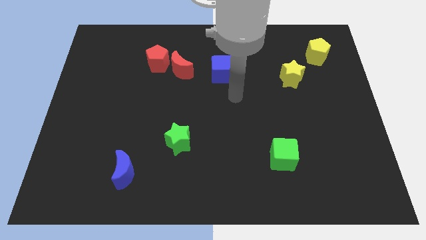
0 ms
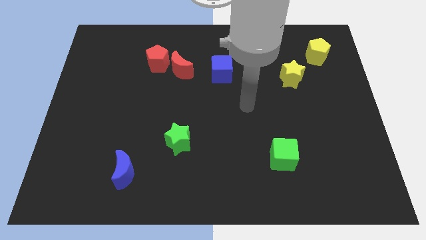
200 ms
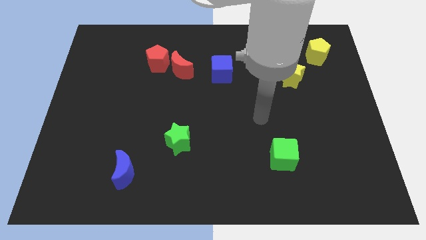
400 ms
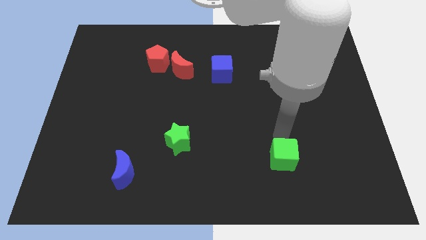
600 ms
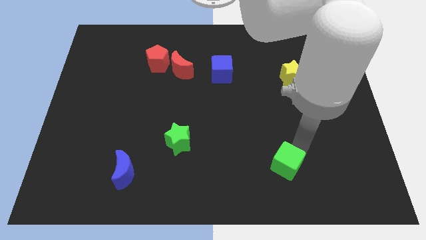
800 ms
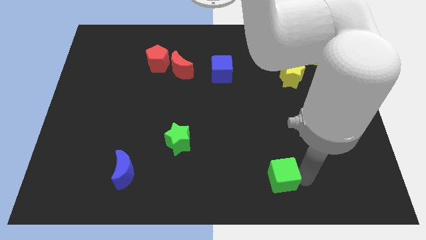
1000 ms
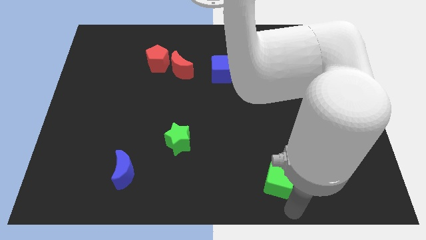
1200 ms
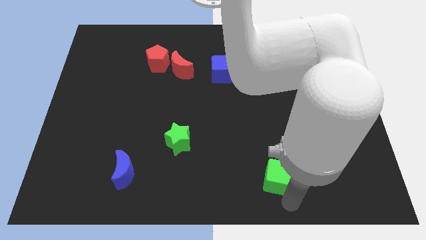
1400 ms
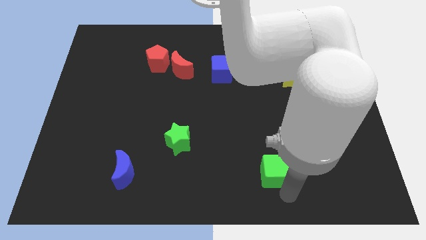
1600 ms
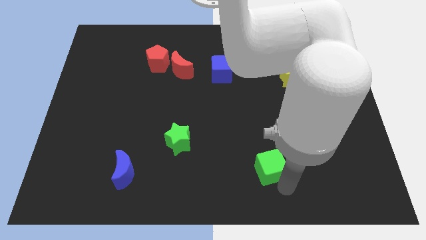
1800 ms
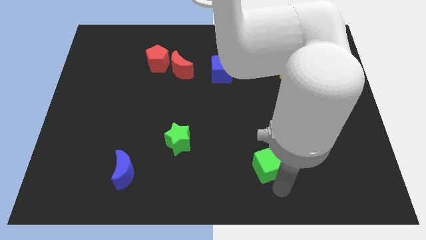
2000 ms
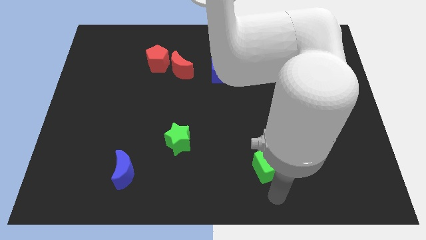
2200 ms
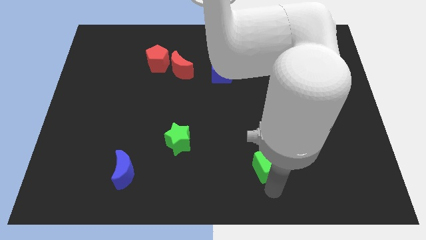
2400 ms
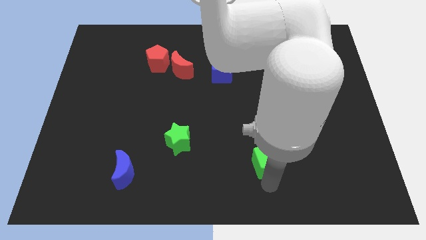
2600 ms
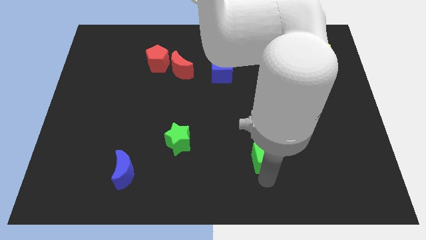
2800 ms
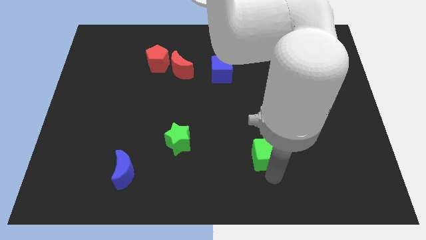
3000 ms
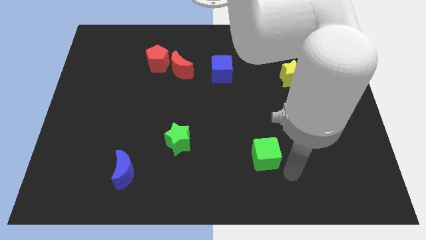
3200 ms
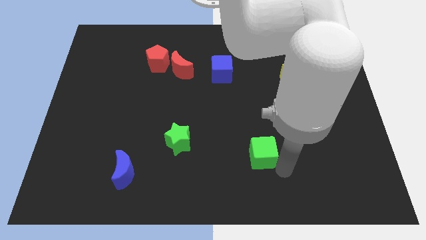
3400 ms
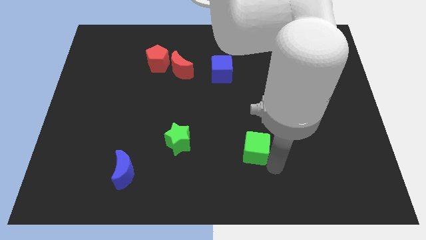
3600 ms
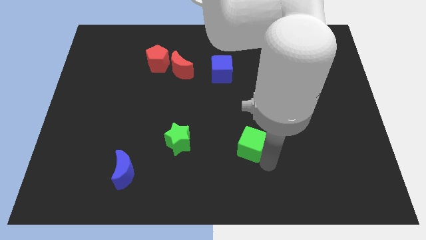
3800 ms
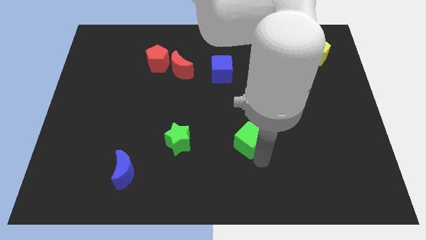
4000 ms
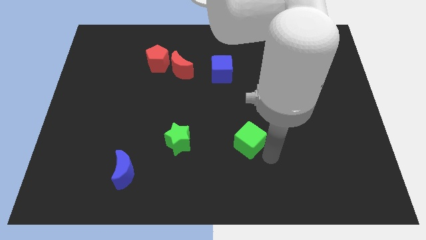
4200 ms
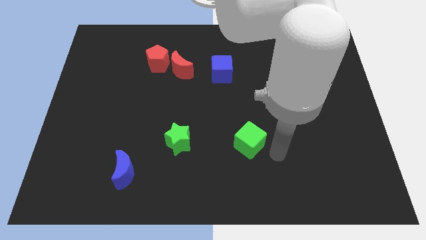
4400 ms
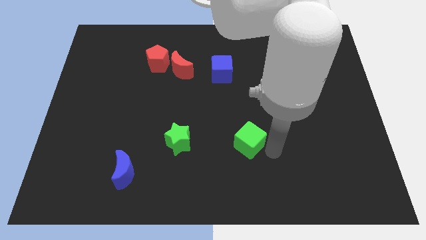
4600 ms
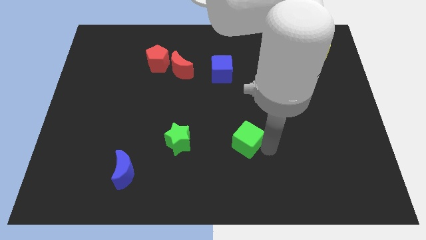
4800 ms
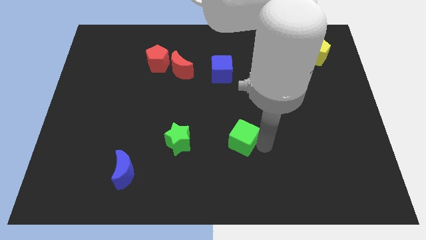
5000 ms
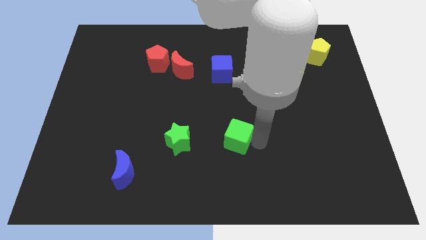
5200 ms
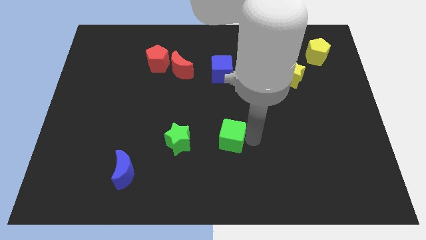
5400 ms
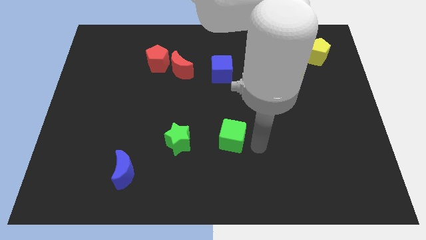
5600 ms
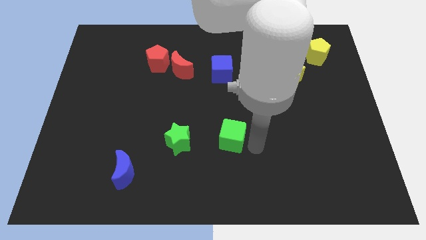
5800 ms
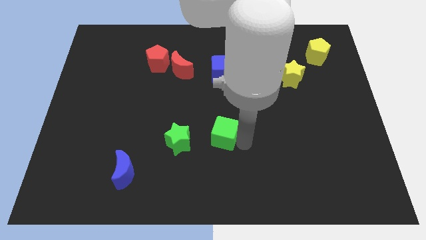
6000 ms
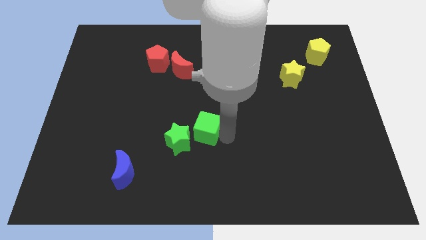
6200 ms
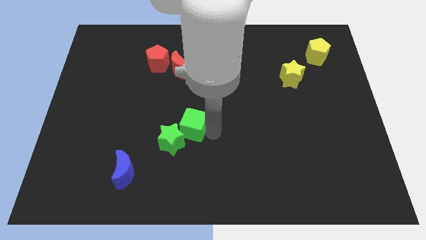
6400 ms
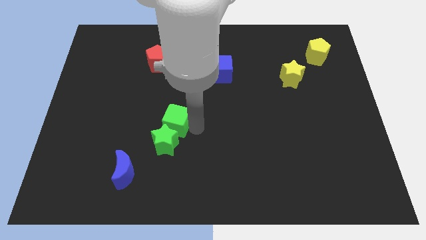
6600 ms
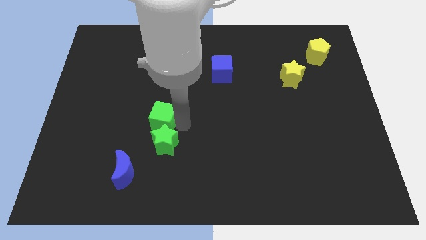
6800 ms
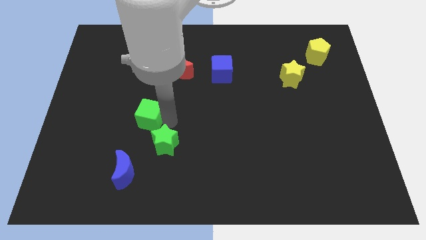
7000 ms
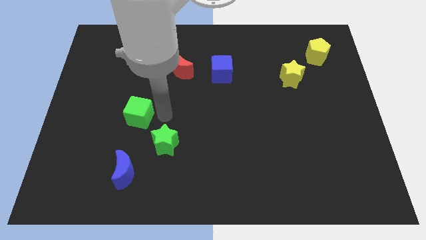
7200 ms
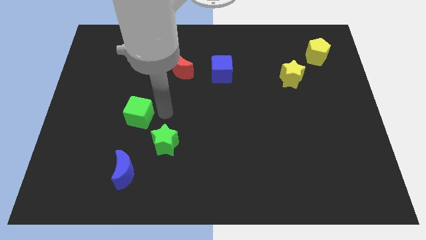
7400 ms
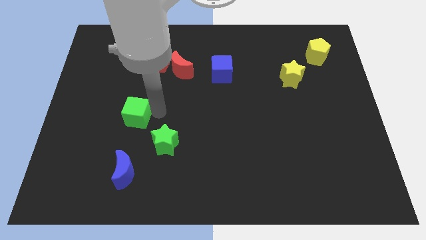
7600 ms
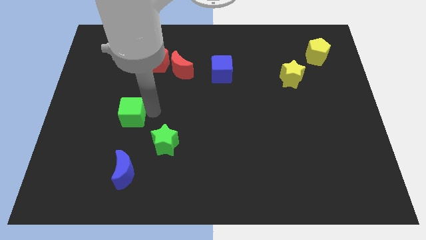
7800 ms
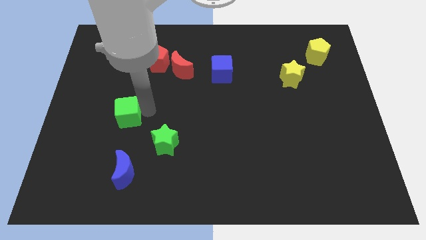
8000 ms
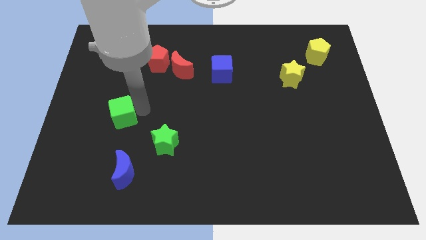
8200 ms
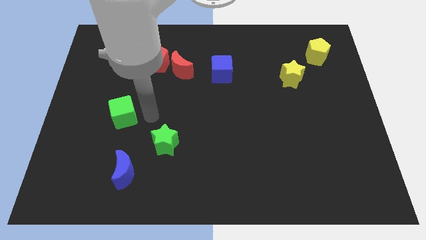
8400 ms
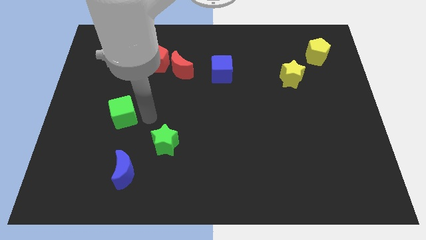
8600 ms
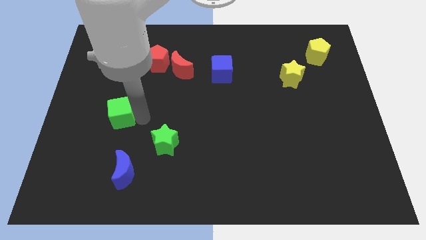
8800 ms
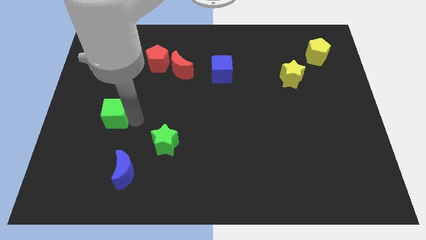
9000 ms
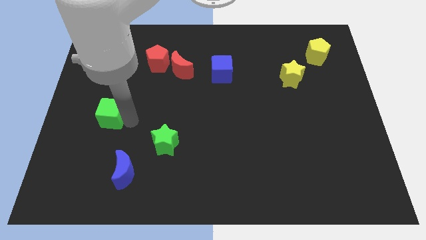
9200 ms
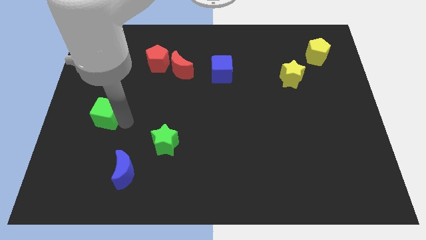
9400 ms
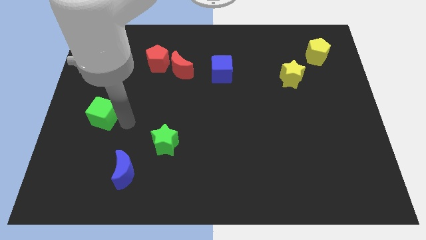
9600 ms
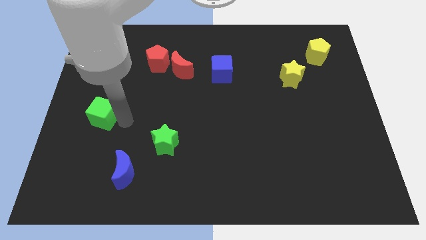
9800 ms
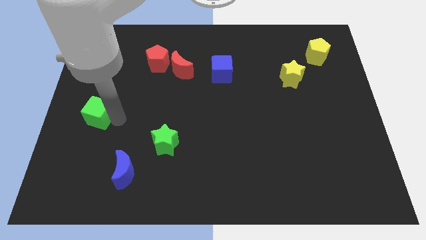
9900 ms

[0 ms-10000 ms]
put the green cube to the left side

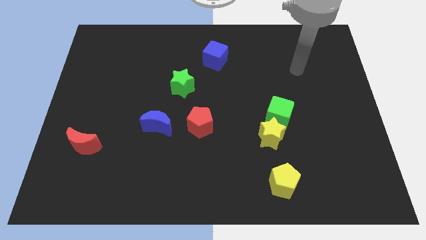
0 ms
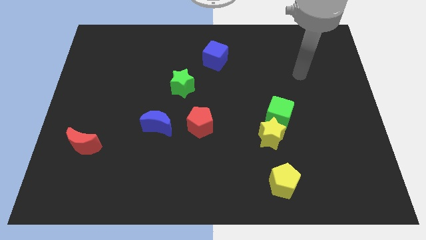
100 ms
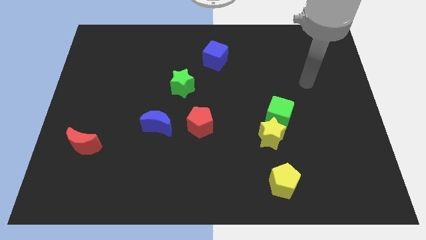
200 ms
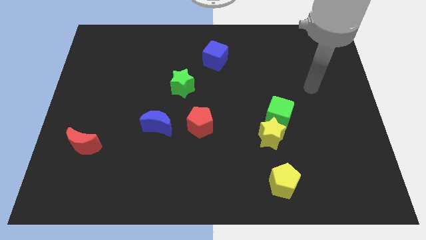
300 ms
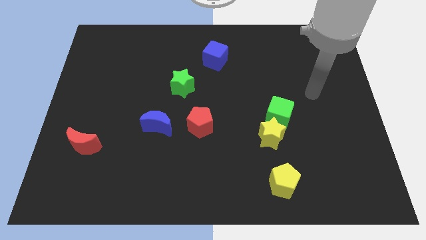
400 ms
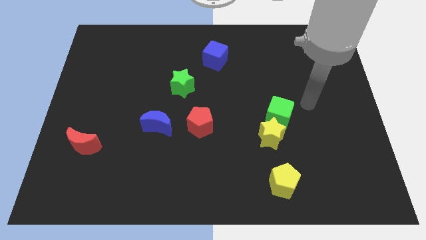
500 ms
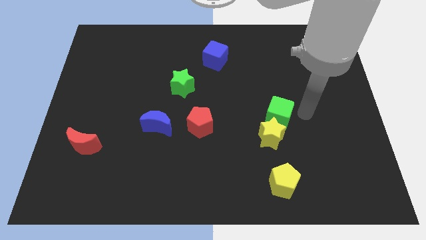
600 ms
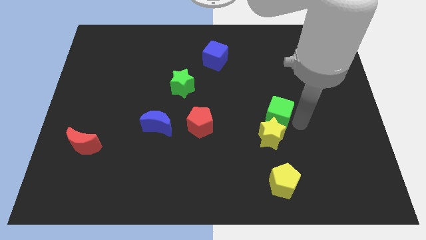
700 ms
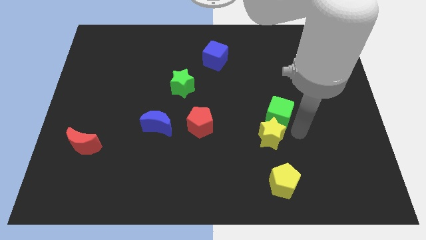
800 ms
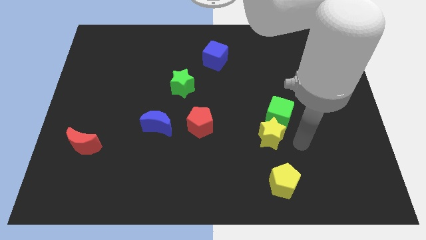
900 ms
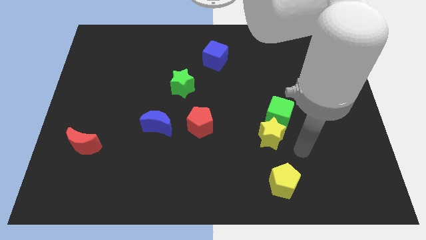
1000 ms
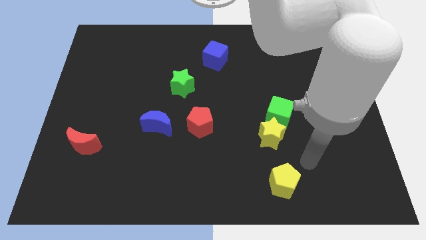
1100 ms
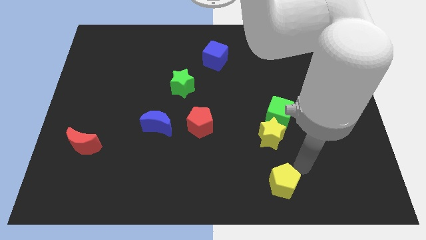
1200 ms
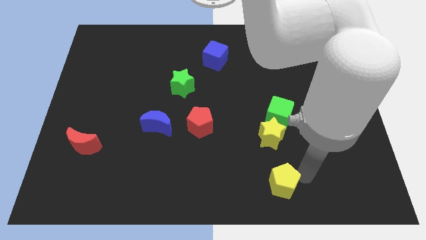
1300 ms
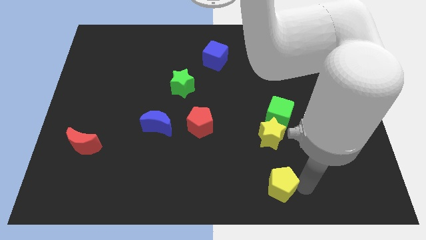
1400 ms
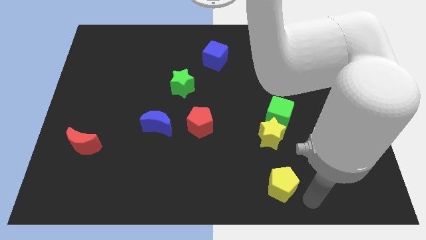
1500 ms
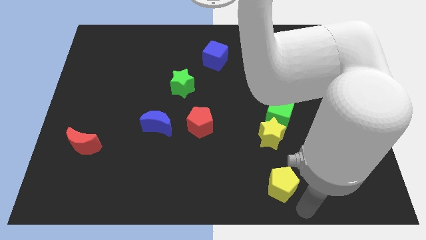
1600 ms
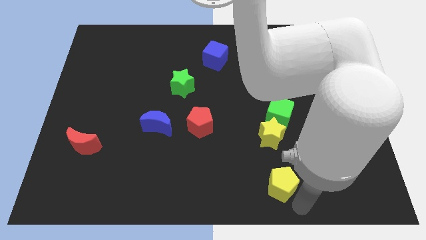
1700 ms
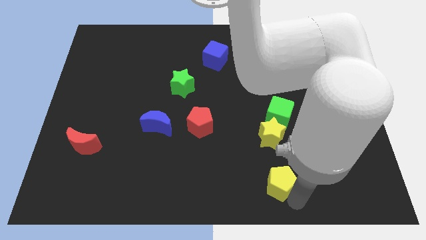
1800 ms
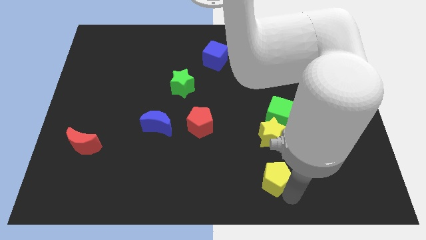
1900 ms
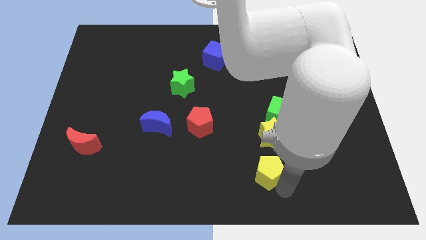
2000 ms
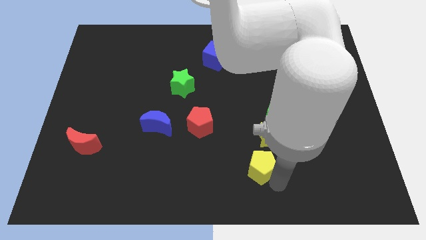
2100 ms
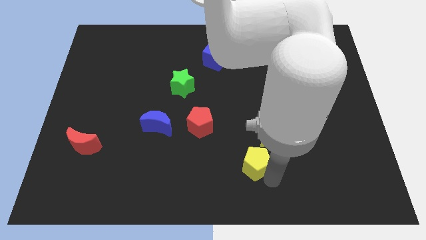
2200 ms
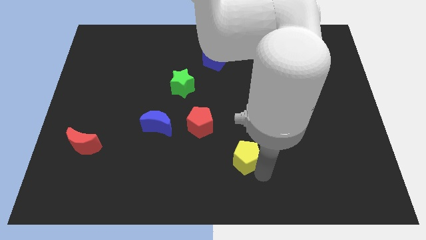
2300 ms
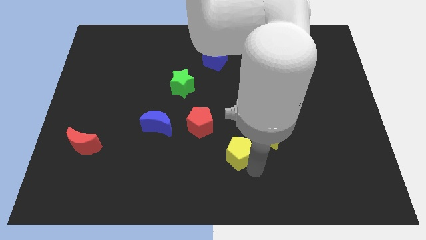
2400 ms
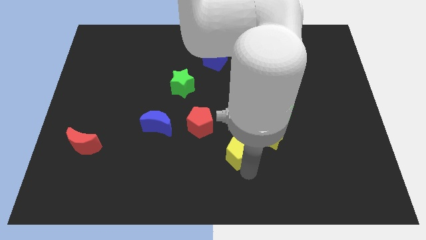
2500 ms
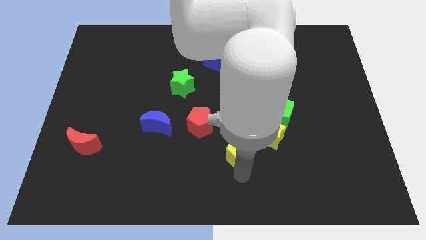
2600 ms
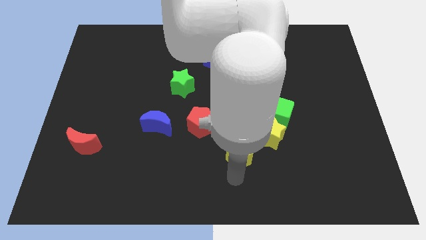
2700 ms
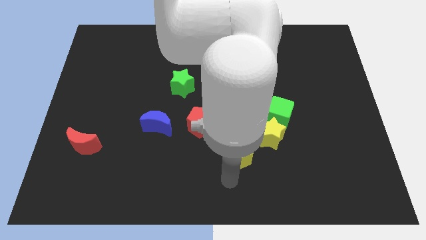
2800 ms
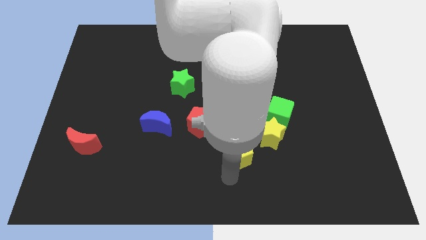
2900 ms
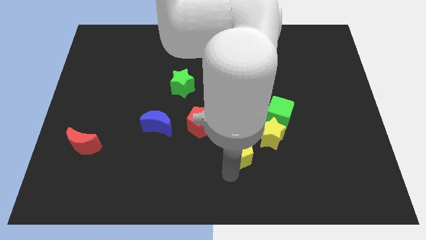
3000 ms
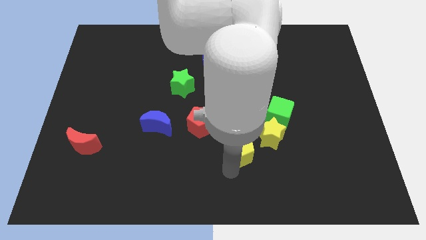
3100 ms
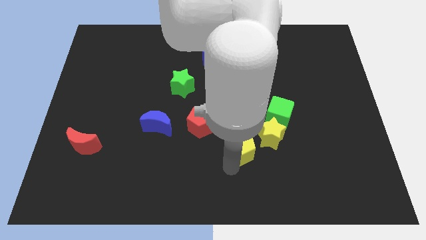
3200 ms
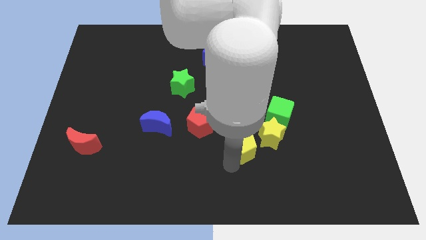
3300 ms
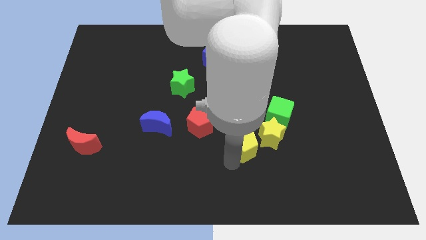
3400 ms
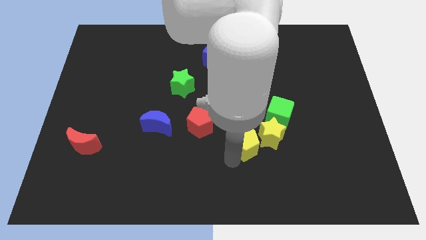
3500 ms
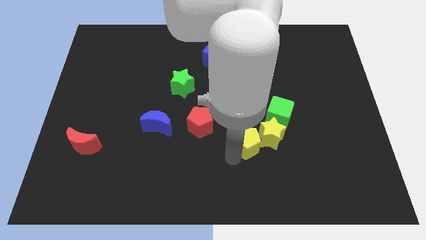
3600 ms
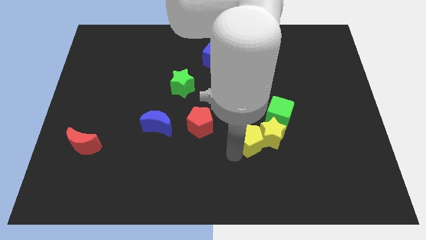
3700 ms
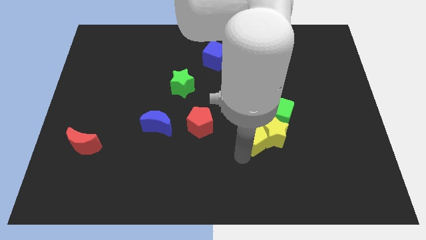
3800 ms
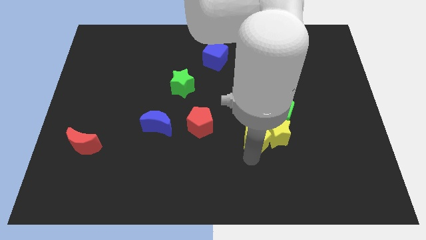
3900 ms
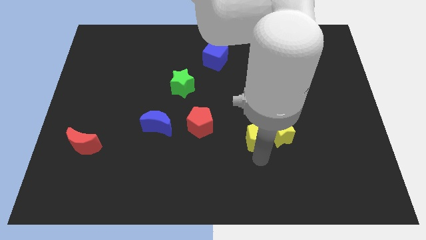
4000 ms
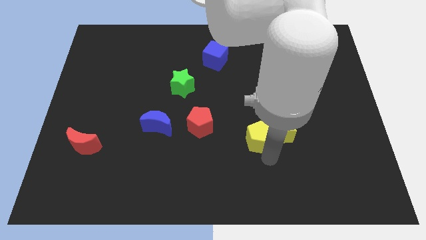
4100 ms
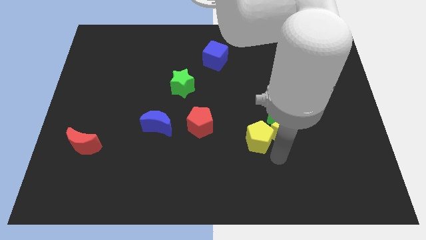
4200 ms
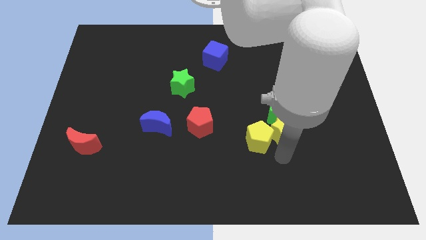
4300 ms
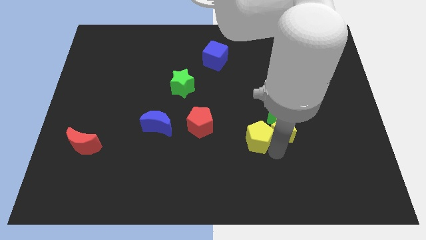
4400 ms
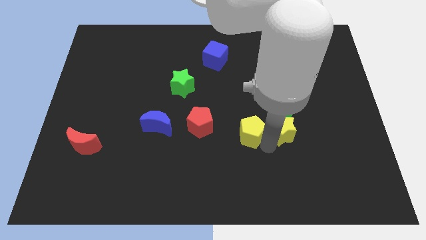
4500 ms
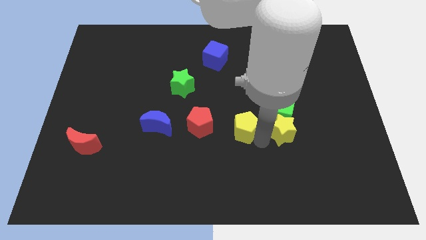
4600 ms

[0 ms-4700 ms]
move the yellow pentagon to the middle of the board
